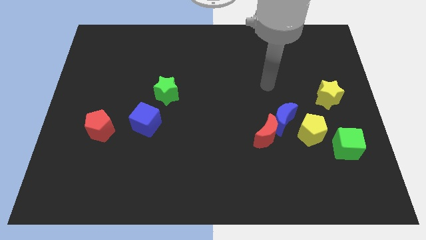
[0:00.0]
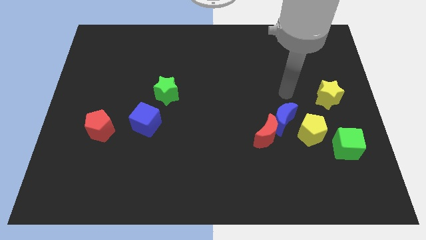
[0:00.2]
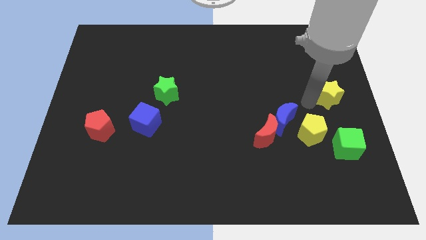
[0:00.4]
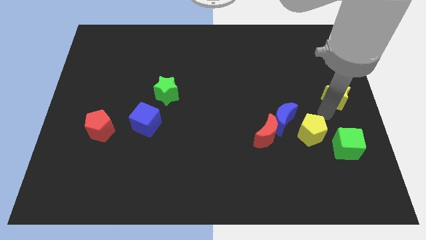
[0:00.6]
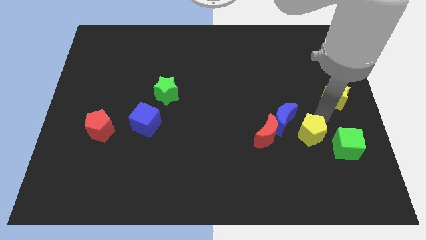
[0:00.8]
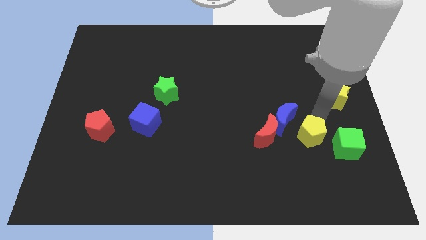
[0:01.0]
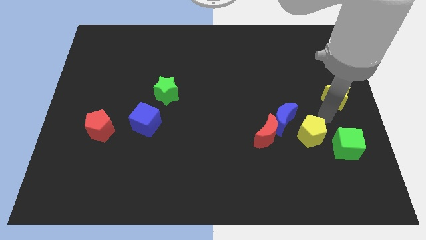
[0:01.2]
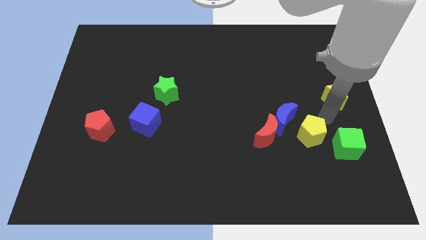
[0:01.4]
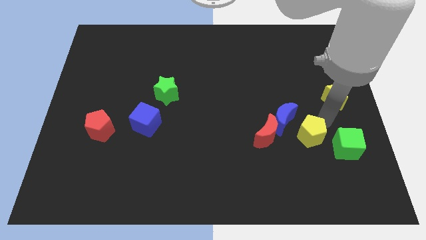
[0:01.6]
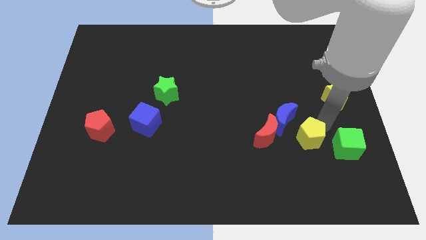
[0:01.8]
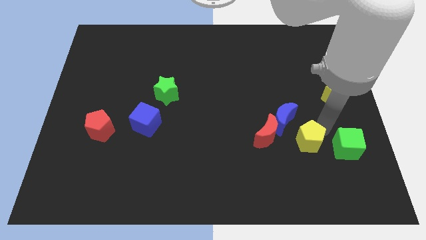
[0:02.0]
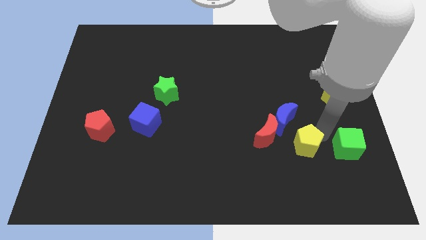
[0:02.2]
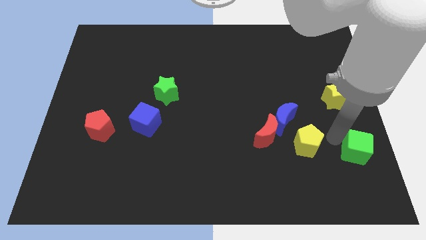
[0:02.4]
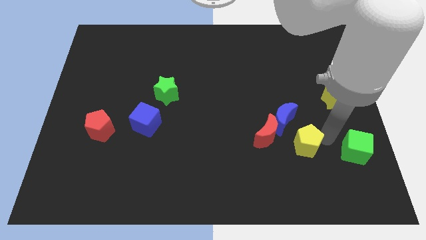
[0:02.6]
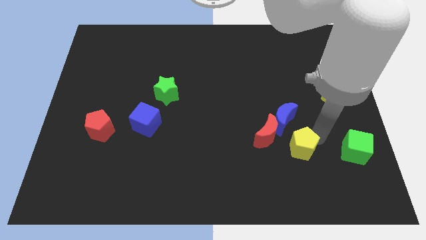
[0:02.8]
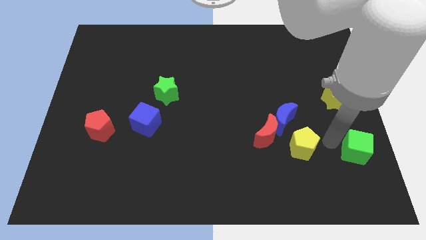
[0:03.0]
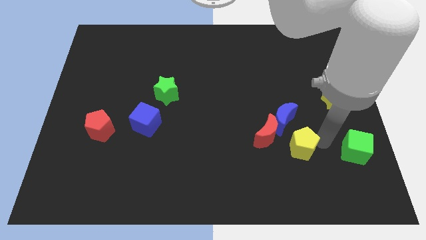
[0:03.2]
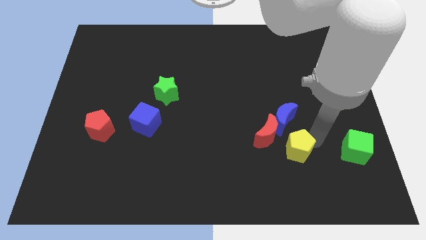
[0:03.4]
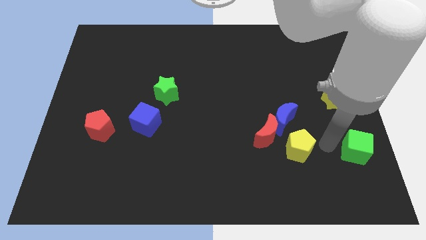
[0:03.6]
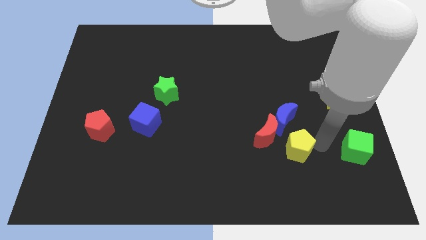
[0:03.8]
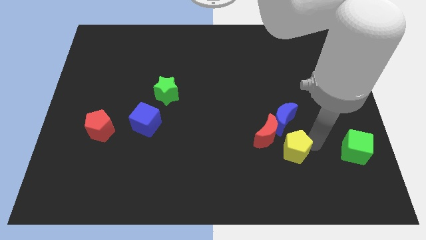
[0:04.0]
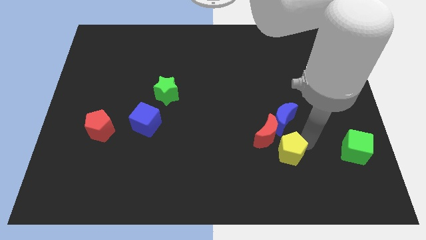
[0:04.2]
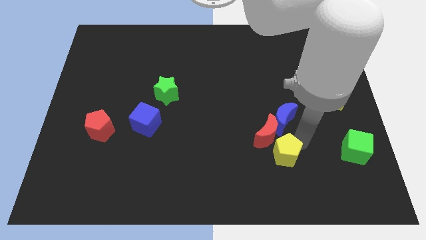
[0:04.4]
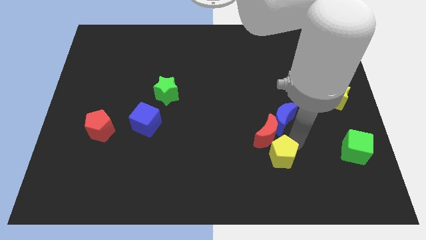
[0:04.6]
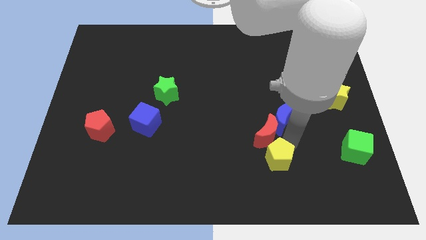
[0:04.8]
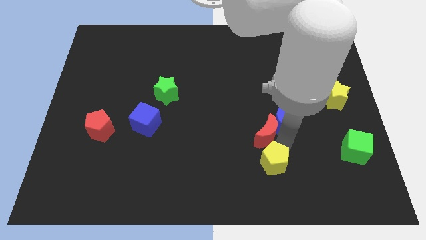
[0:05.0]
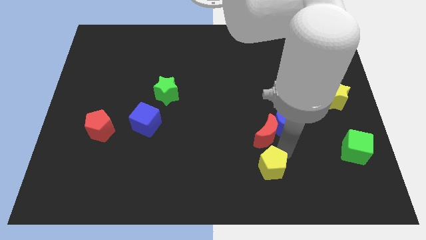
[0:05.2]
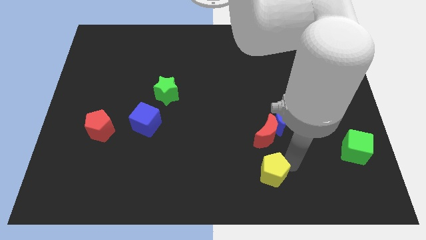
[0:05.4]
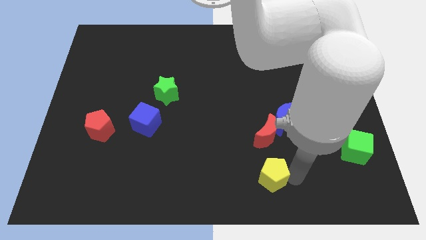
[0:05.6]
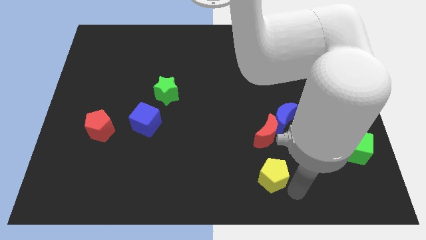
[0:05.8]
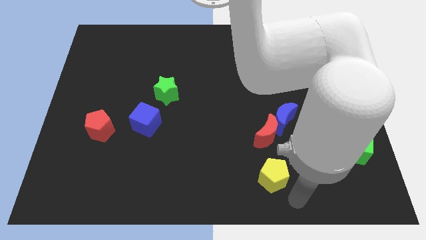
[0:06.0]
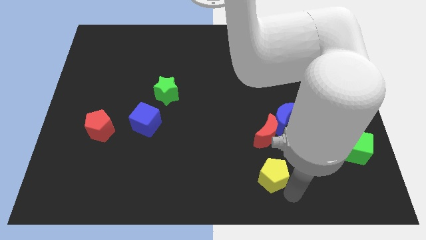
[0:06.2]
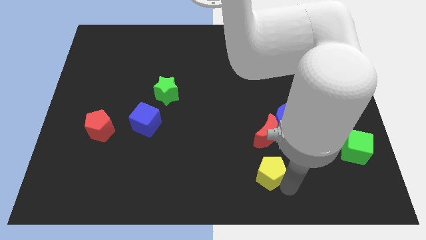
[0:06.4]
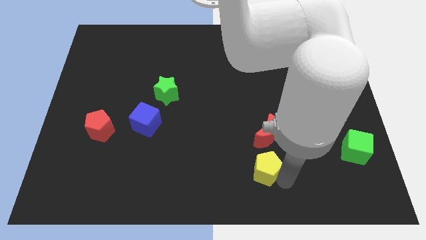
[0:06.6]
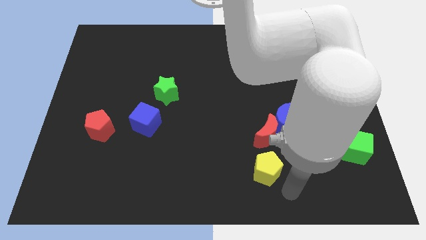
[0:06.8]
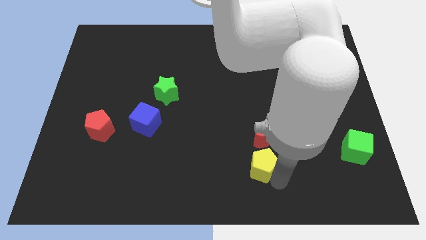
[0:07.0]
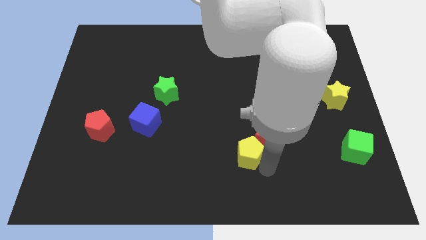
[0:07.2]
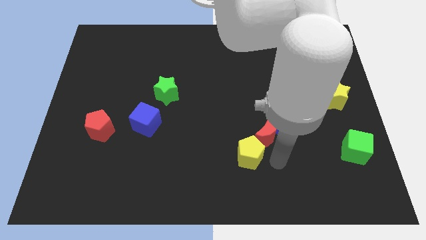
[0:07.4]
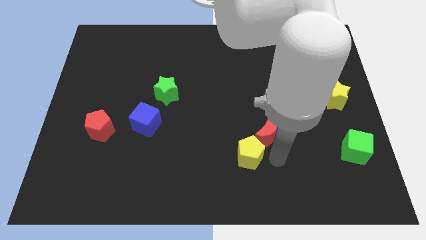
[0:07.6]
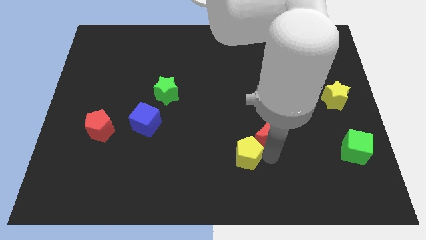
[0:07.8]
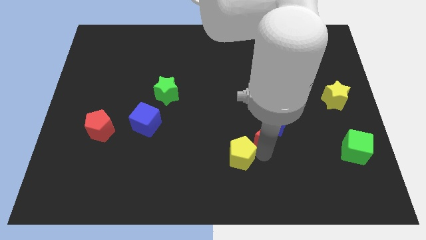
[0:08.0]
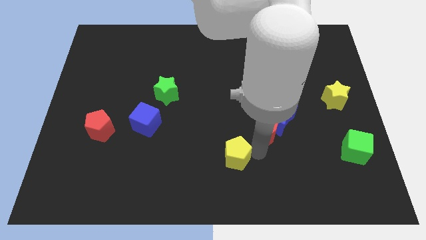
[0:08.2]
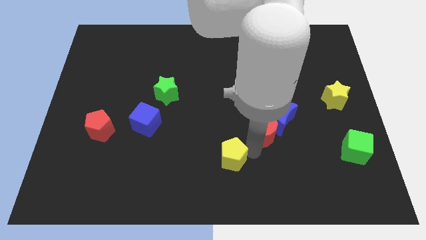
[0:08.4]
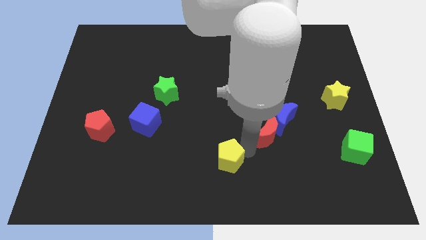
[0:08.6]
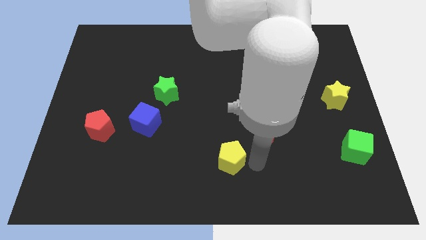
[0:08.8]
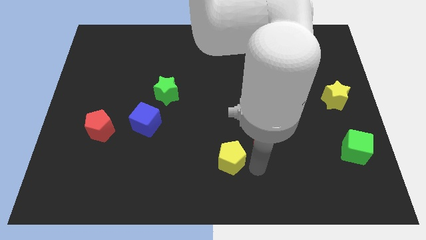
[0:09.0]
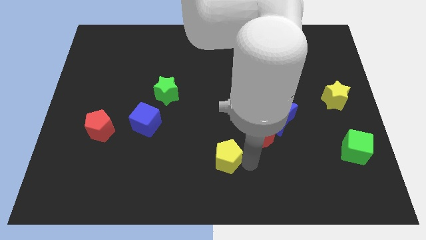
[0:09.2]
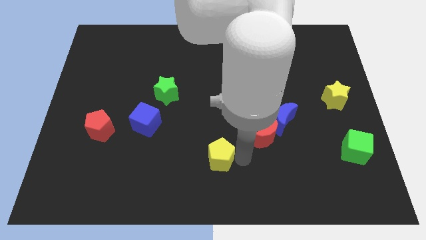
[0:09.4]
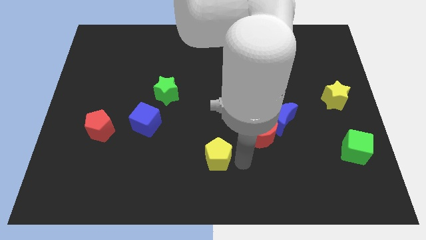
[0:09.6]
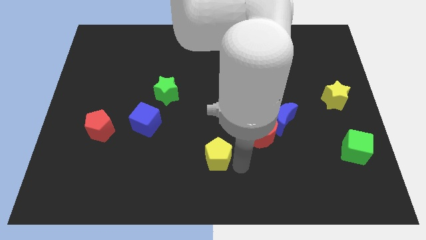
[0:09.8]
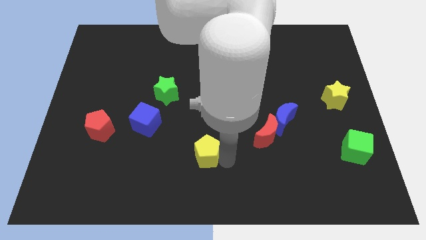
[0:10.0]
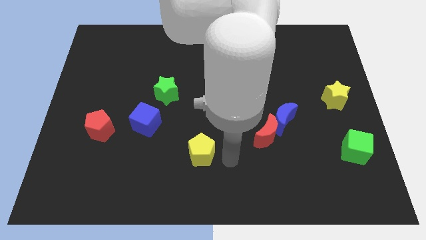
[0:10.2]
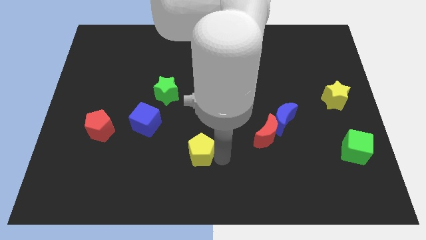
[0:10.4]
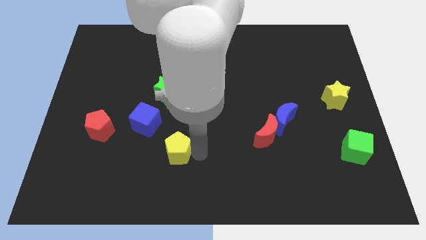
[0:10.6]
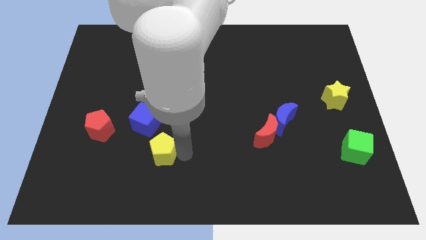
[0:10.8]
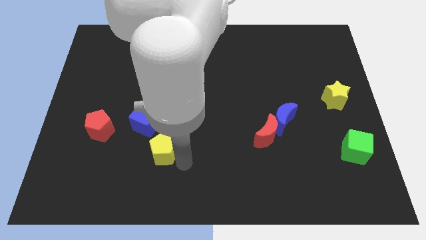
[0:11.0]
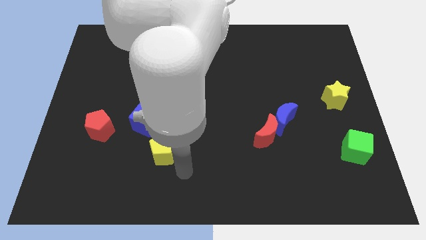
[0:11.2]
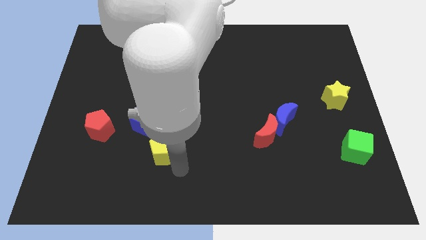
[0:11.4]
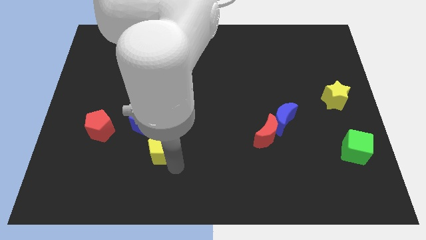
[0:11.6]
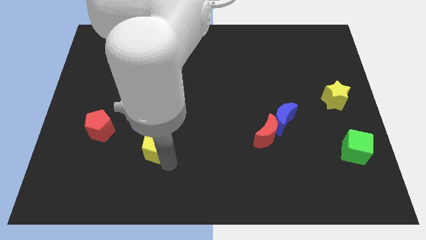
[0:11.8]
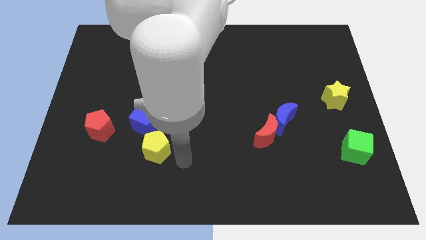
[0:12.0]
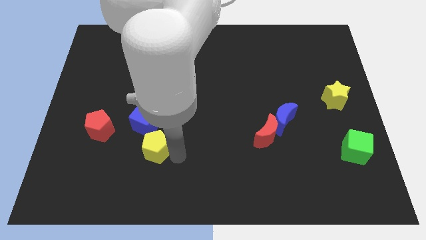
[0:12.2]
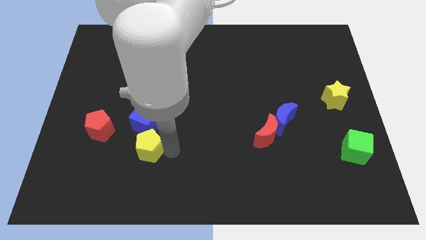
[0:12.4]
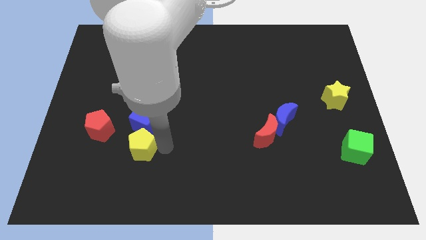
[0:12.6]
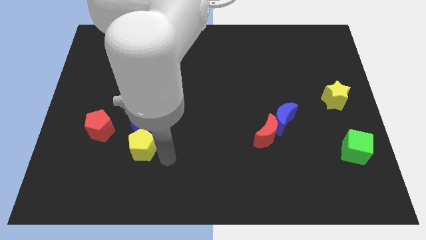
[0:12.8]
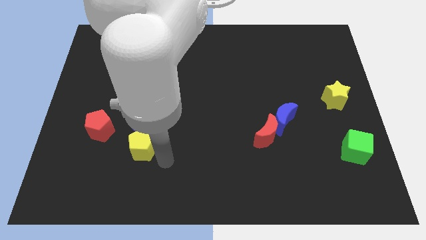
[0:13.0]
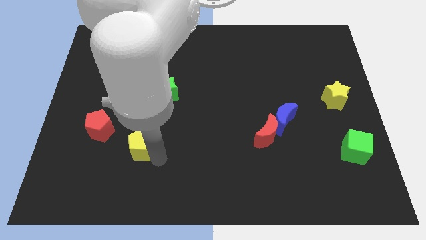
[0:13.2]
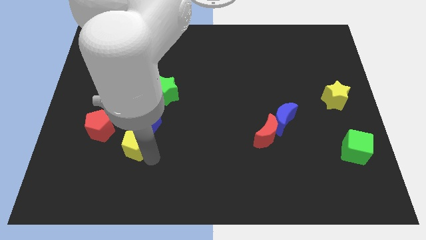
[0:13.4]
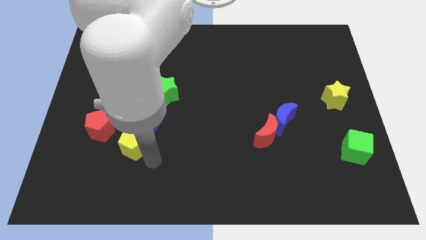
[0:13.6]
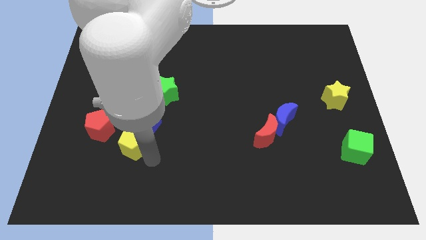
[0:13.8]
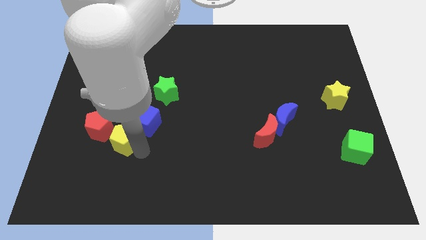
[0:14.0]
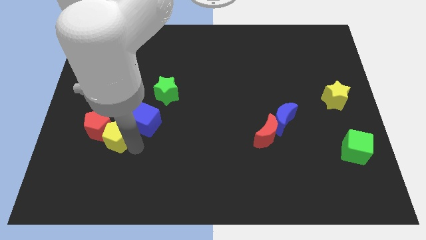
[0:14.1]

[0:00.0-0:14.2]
slide the yellow pentagon close to the red pentagon
